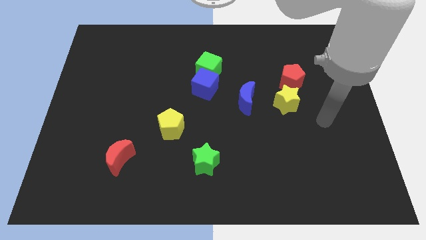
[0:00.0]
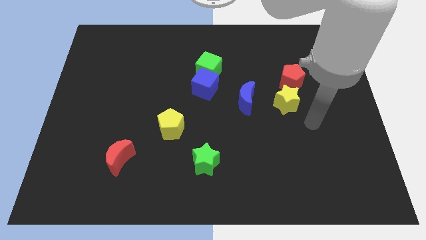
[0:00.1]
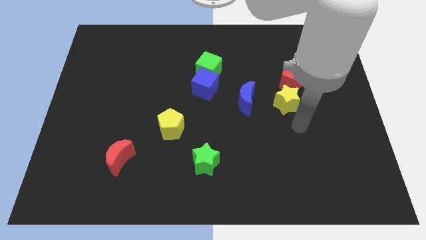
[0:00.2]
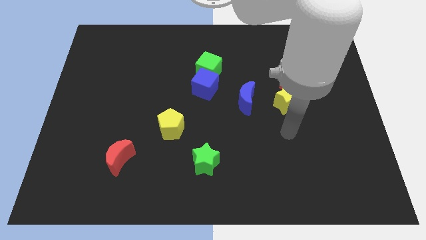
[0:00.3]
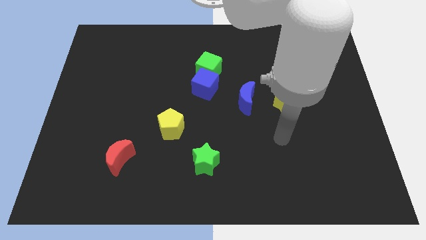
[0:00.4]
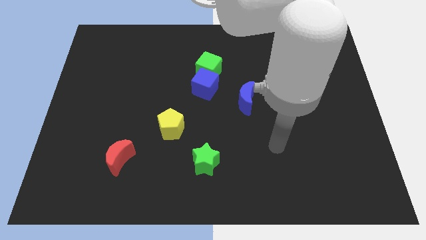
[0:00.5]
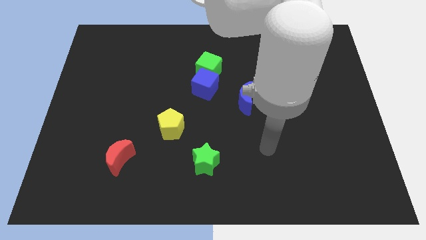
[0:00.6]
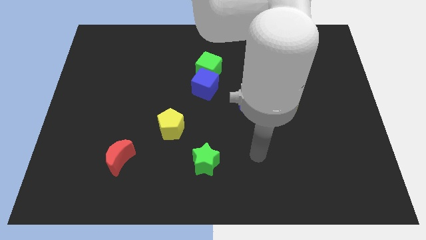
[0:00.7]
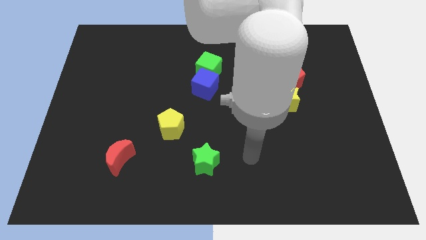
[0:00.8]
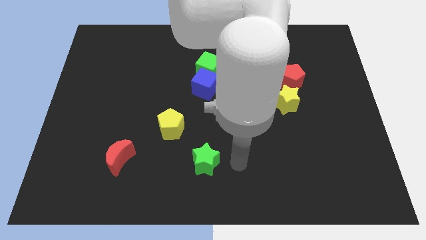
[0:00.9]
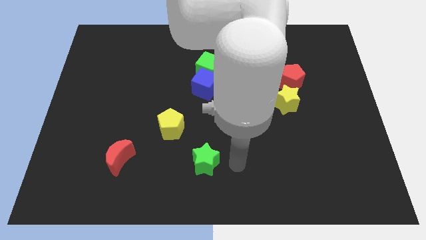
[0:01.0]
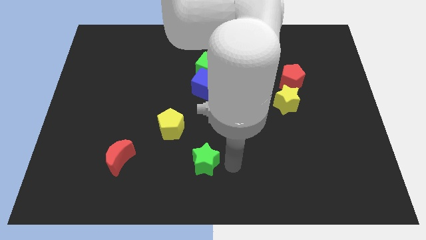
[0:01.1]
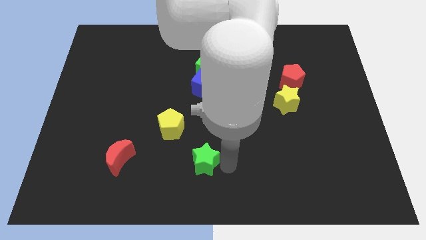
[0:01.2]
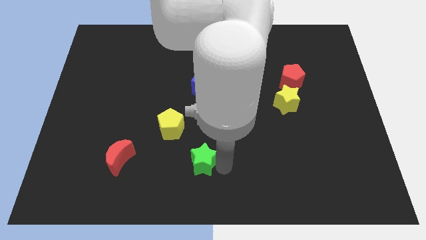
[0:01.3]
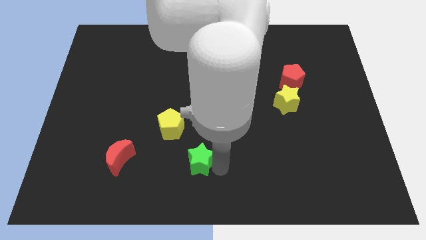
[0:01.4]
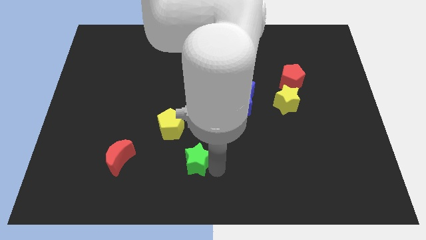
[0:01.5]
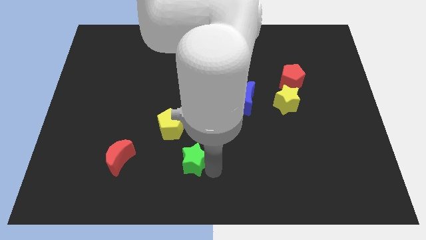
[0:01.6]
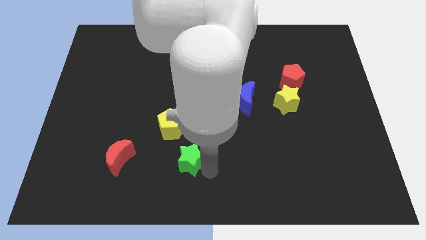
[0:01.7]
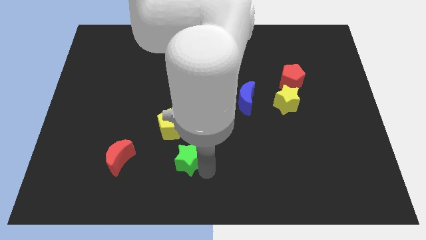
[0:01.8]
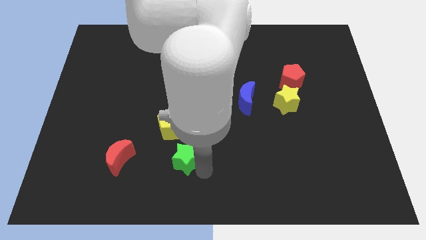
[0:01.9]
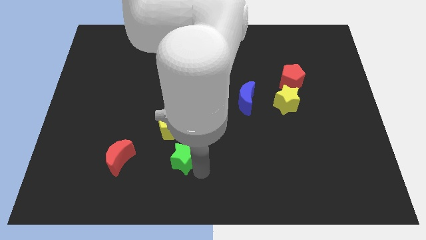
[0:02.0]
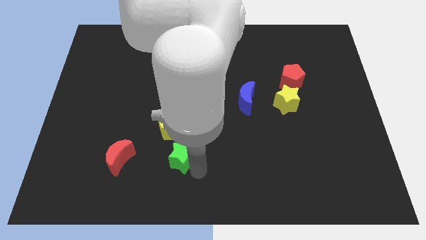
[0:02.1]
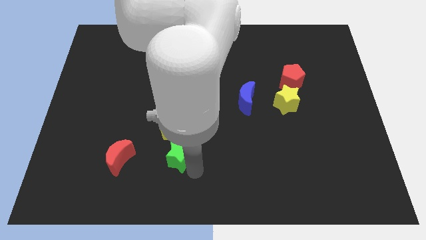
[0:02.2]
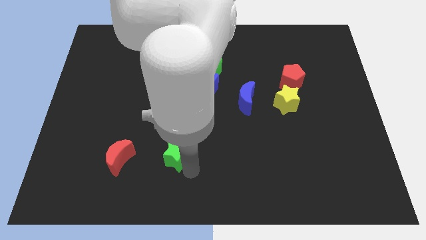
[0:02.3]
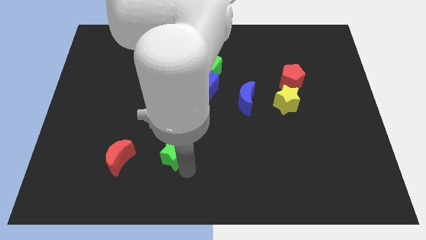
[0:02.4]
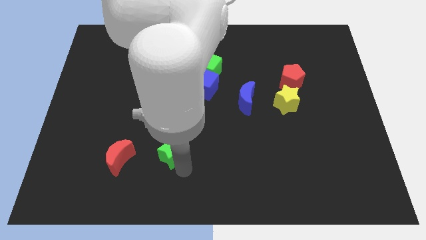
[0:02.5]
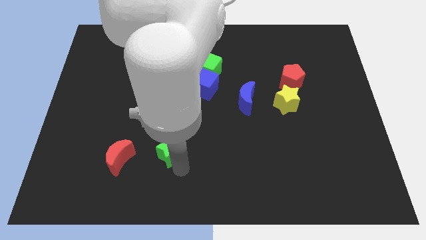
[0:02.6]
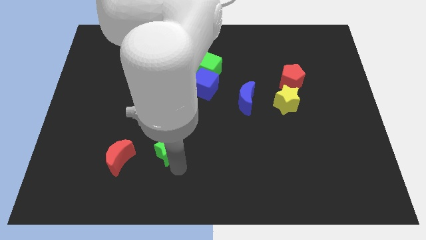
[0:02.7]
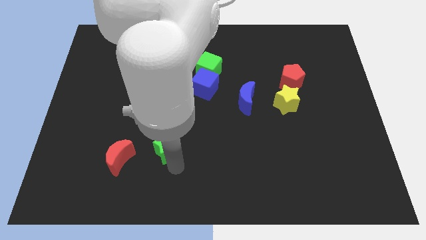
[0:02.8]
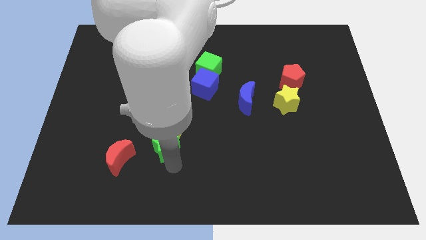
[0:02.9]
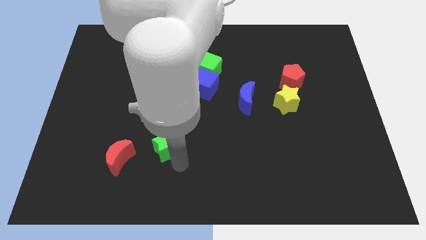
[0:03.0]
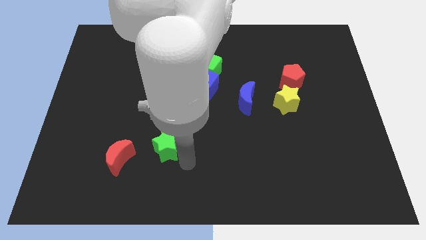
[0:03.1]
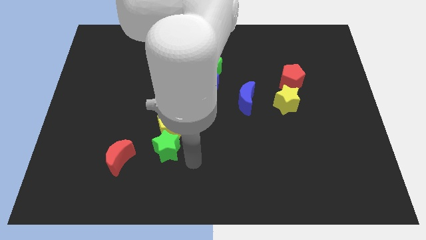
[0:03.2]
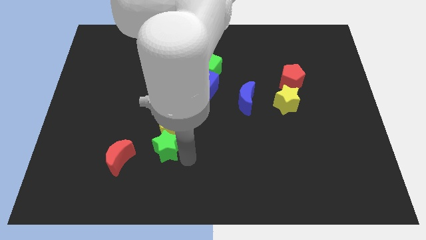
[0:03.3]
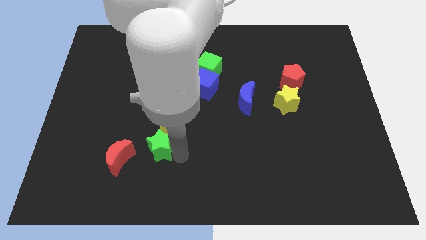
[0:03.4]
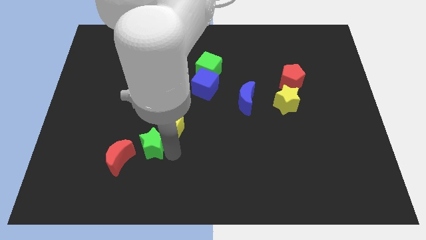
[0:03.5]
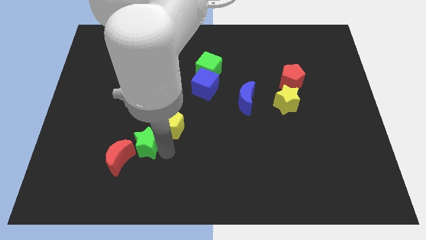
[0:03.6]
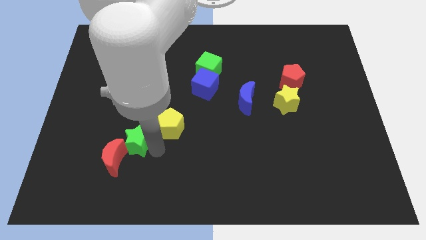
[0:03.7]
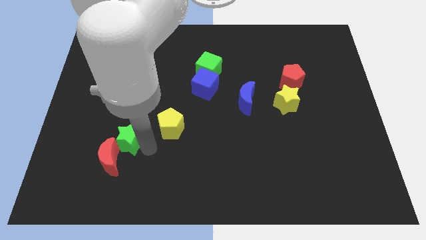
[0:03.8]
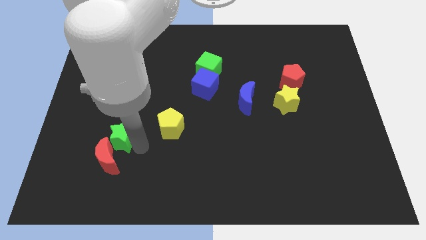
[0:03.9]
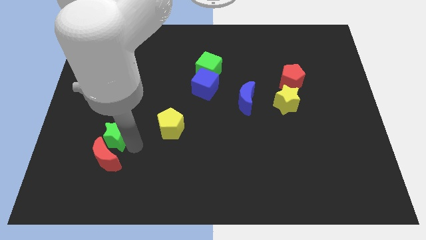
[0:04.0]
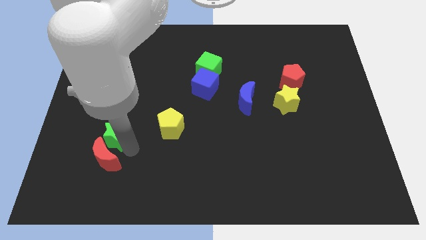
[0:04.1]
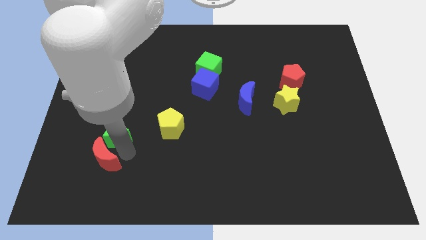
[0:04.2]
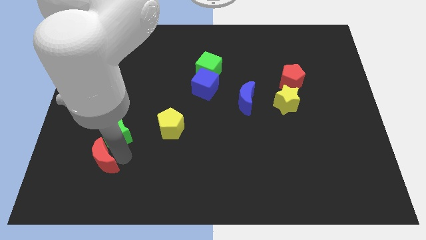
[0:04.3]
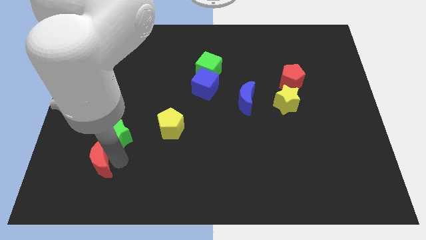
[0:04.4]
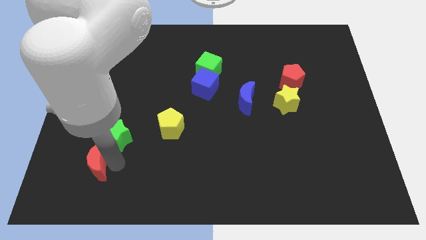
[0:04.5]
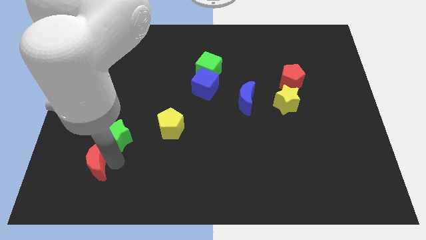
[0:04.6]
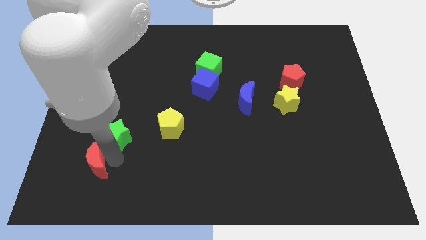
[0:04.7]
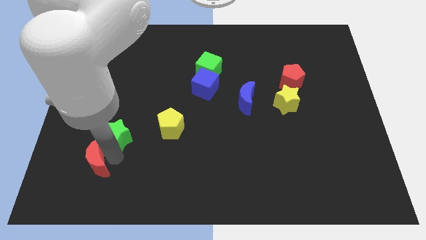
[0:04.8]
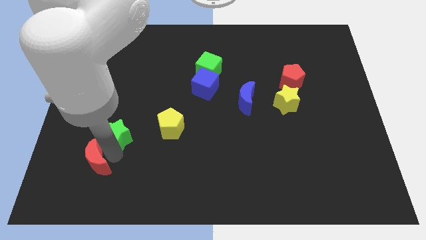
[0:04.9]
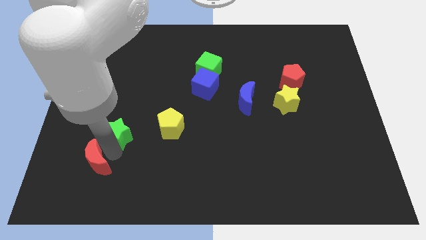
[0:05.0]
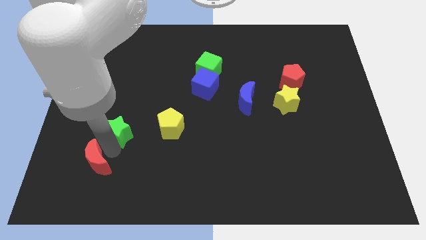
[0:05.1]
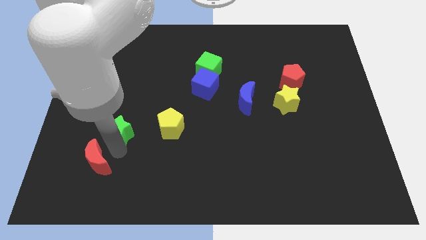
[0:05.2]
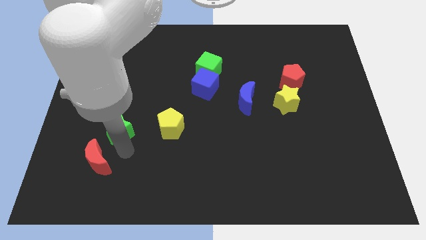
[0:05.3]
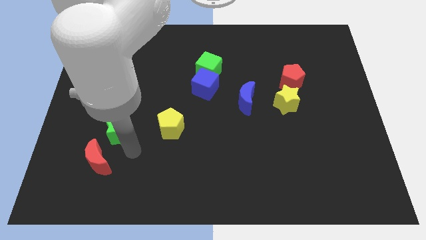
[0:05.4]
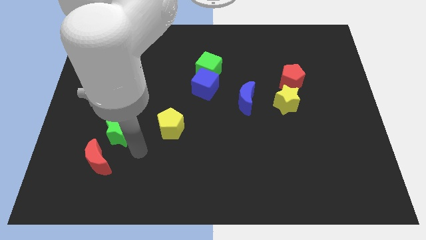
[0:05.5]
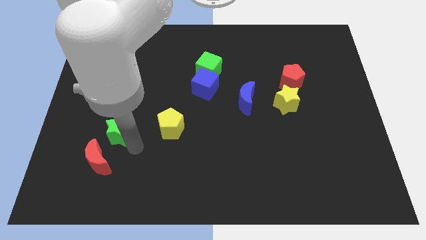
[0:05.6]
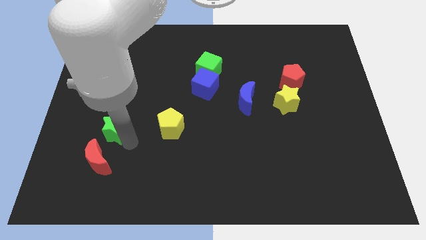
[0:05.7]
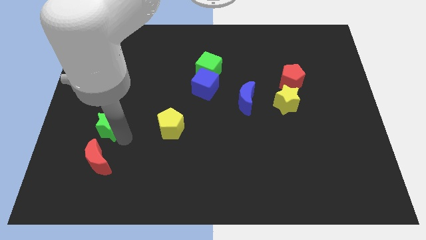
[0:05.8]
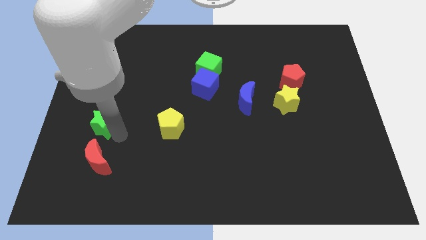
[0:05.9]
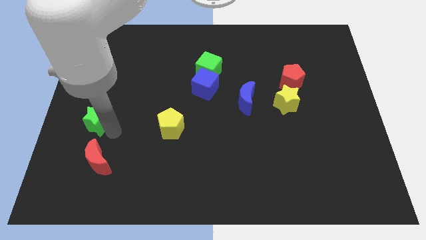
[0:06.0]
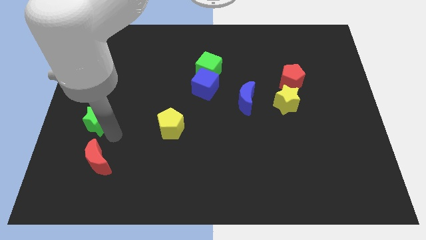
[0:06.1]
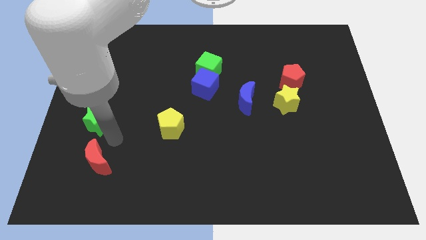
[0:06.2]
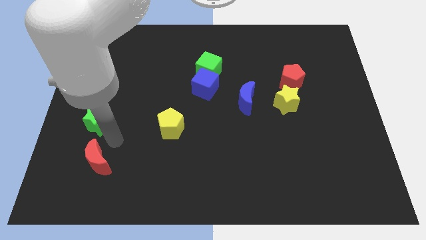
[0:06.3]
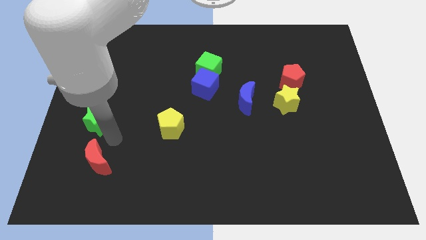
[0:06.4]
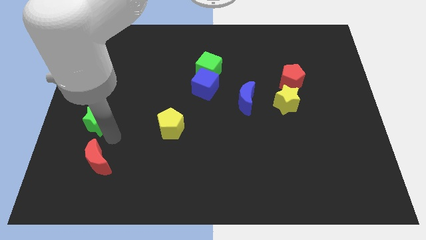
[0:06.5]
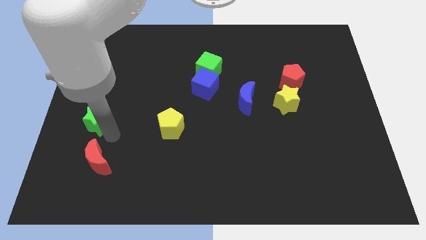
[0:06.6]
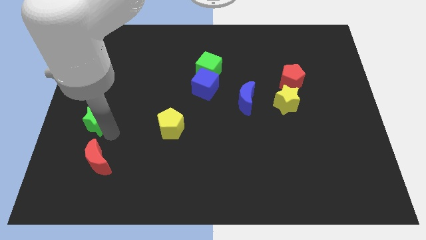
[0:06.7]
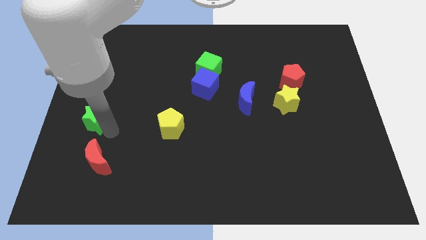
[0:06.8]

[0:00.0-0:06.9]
slide the green star to the center left

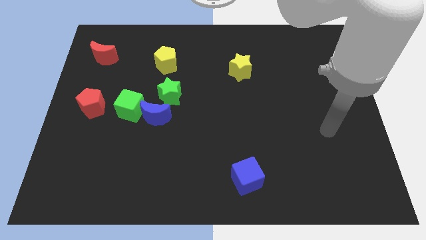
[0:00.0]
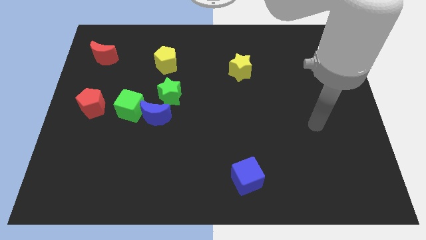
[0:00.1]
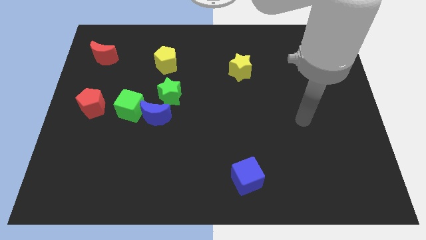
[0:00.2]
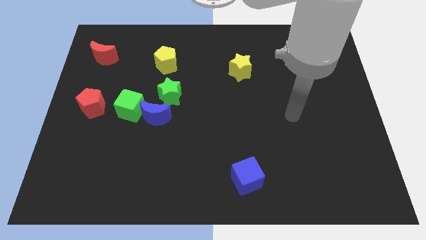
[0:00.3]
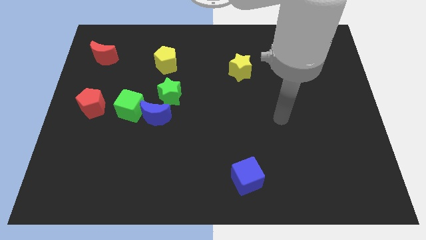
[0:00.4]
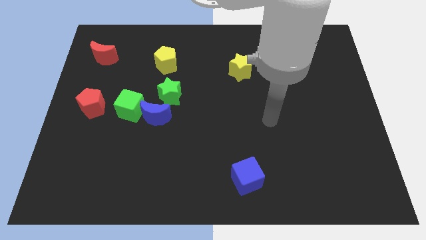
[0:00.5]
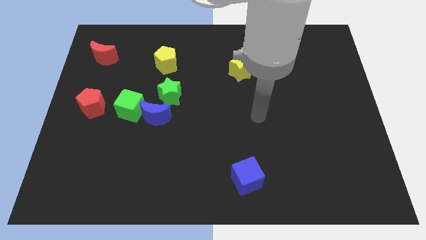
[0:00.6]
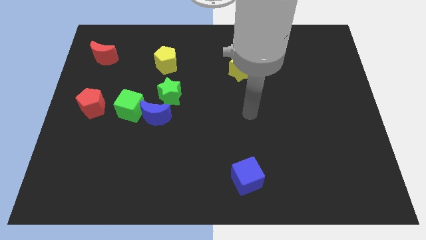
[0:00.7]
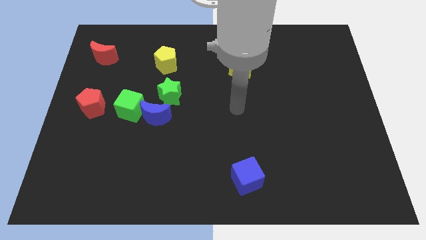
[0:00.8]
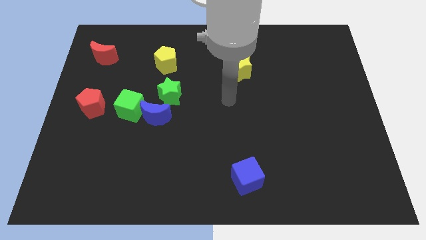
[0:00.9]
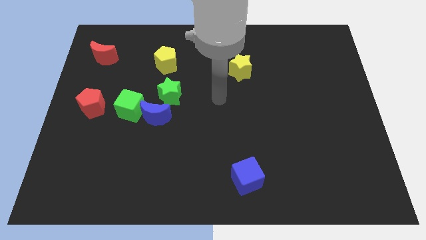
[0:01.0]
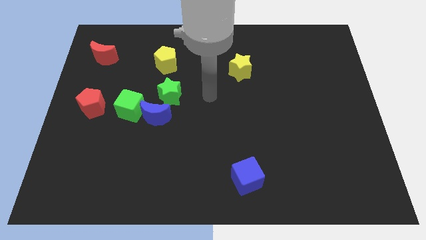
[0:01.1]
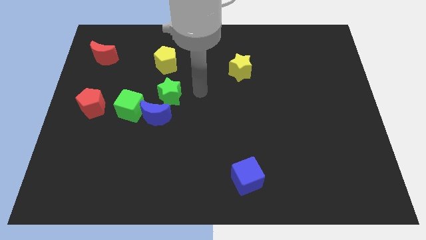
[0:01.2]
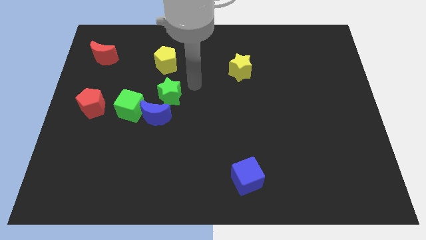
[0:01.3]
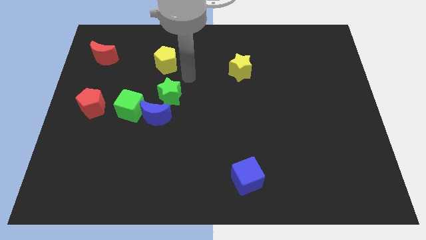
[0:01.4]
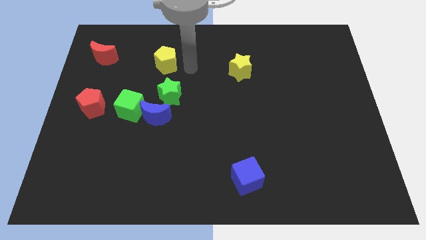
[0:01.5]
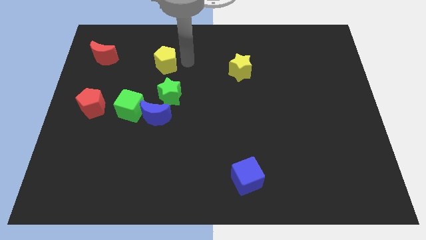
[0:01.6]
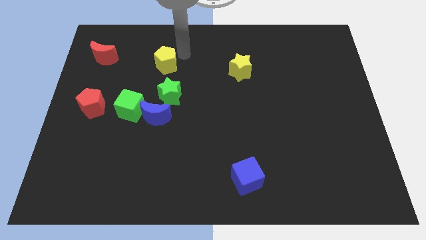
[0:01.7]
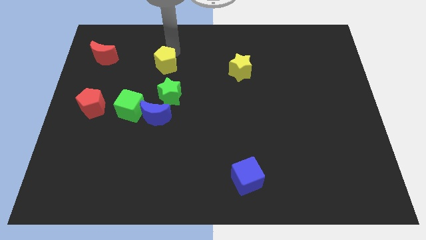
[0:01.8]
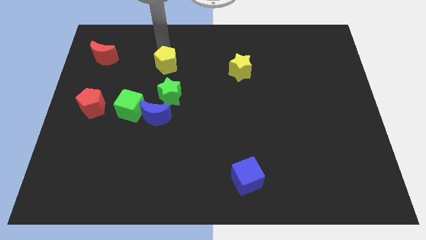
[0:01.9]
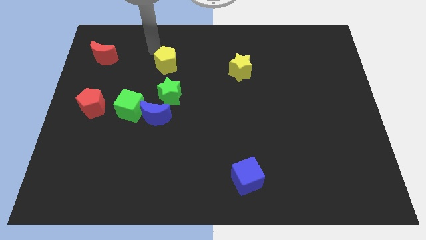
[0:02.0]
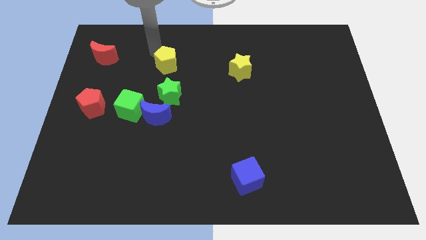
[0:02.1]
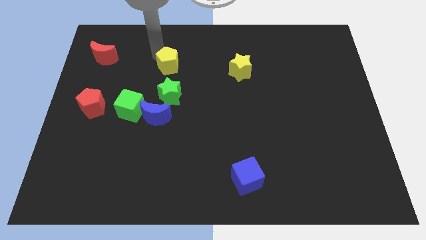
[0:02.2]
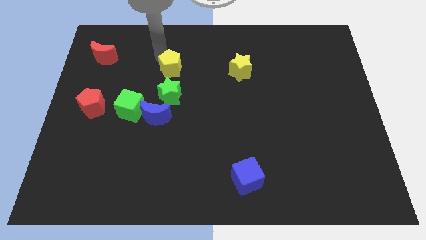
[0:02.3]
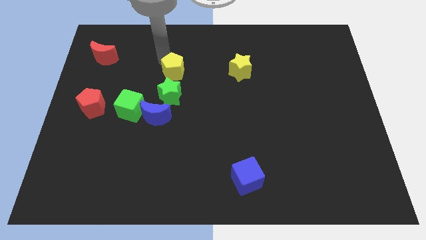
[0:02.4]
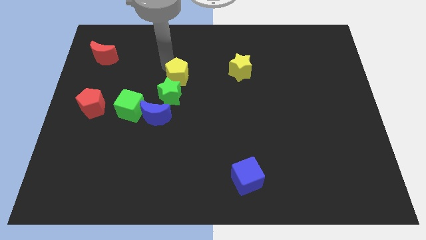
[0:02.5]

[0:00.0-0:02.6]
push the yellow pentagon to the middle
